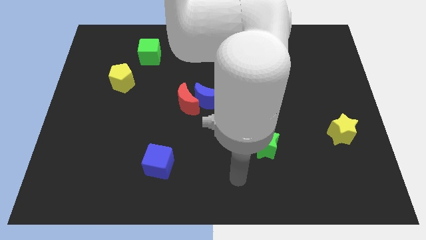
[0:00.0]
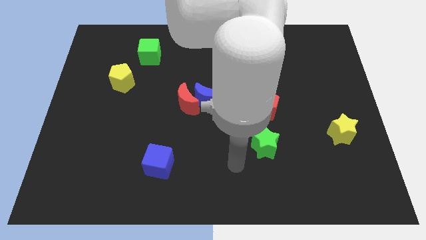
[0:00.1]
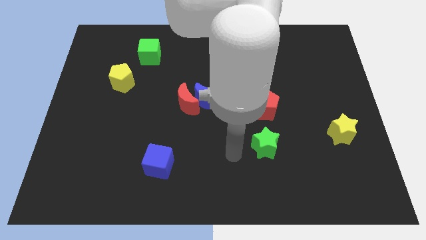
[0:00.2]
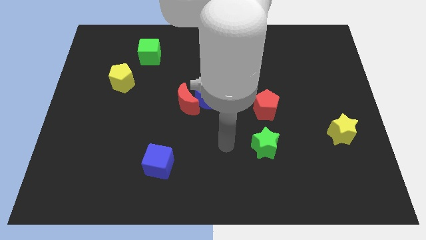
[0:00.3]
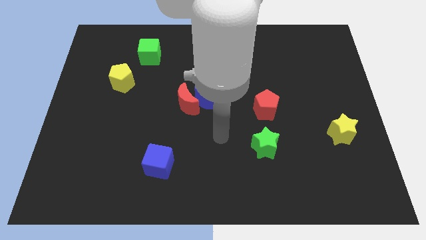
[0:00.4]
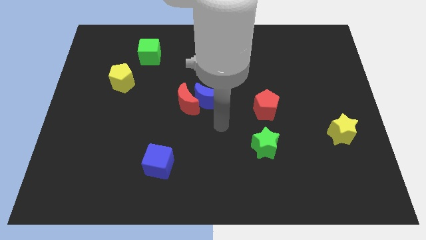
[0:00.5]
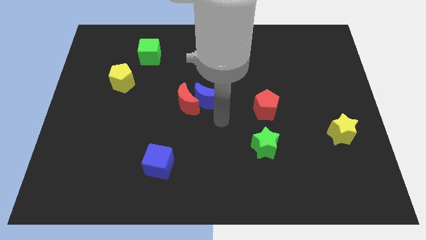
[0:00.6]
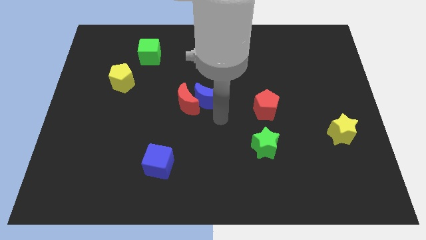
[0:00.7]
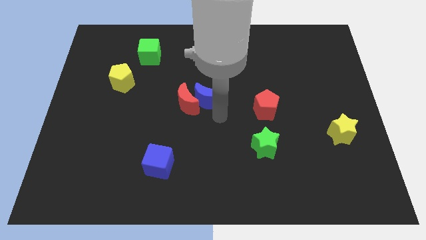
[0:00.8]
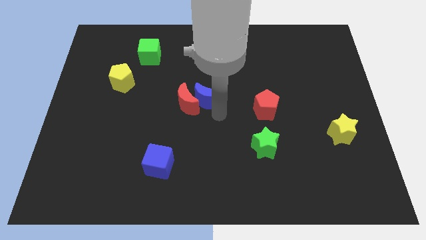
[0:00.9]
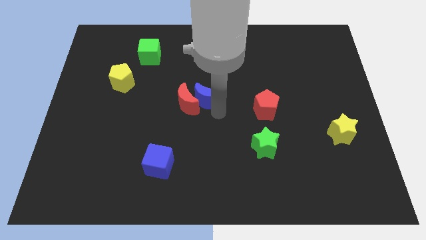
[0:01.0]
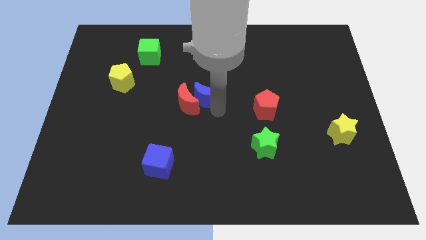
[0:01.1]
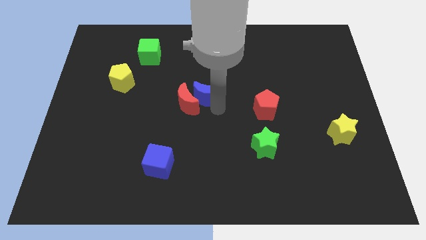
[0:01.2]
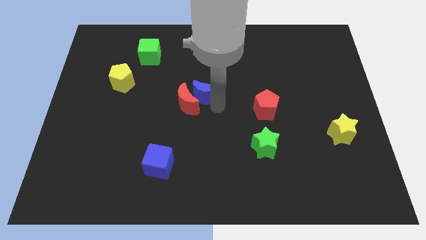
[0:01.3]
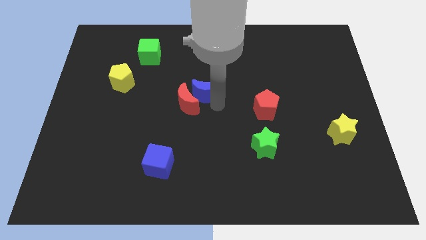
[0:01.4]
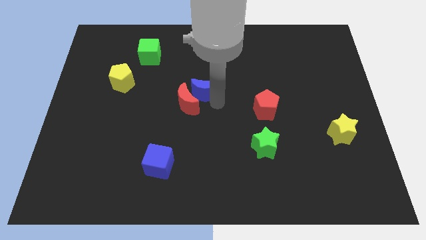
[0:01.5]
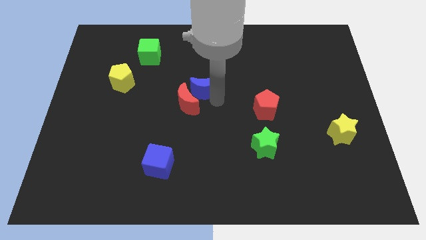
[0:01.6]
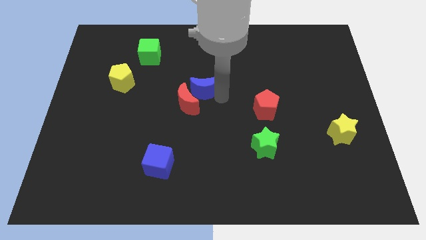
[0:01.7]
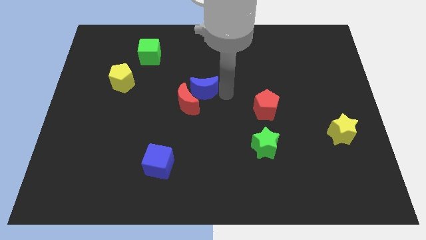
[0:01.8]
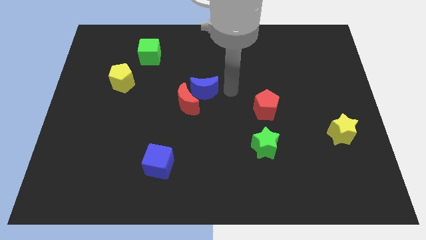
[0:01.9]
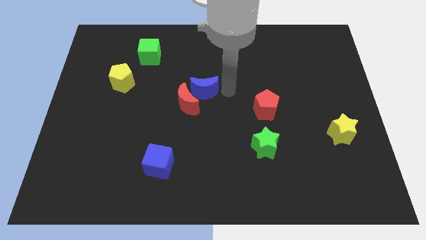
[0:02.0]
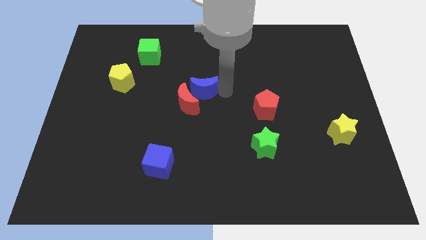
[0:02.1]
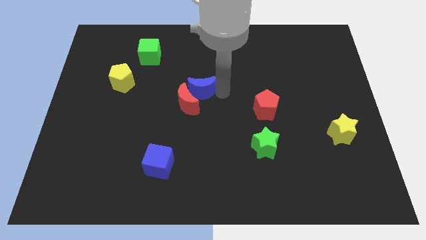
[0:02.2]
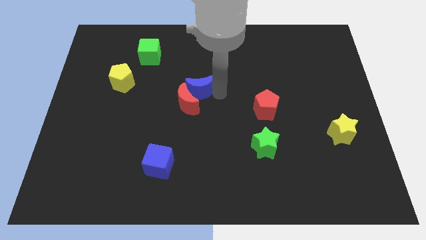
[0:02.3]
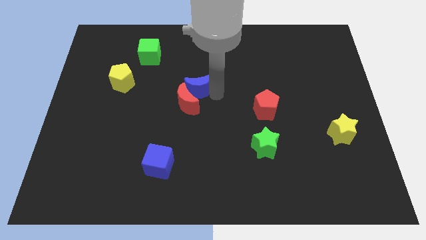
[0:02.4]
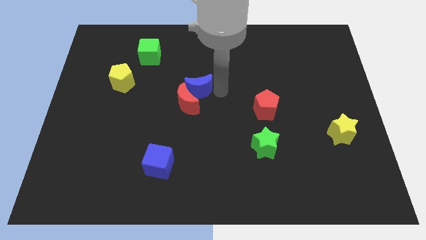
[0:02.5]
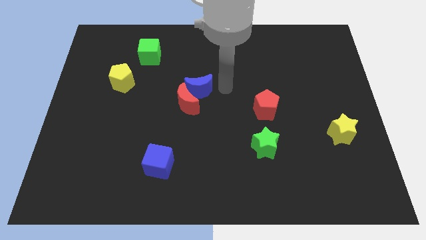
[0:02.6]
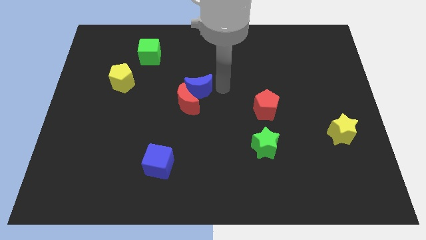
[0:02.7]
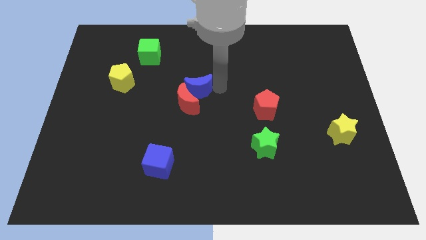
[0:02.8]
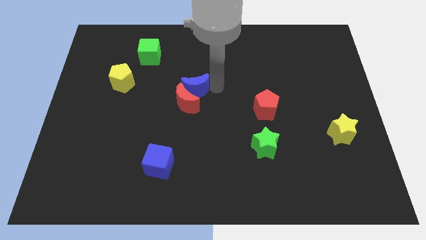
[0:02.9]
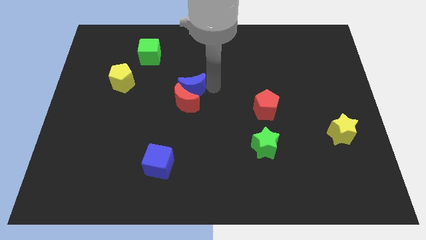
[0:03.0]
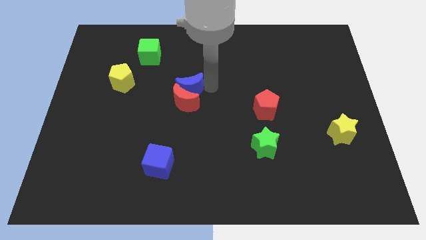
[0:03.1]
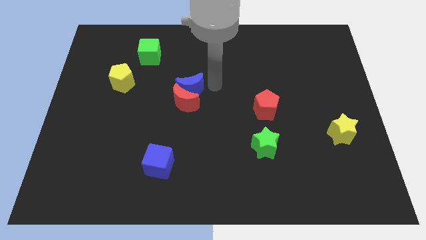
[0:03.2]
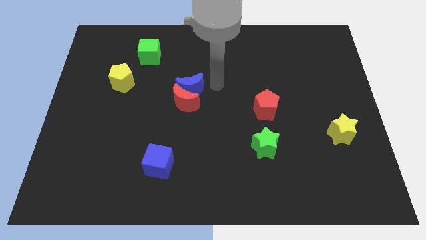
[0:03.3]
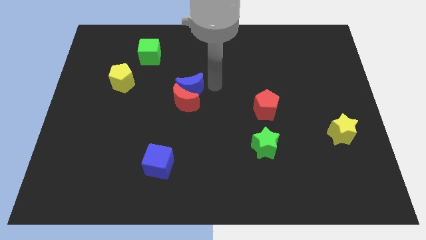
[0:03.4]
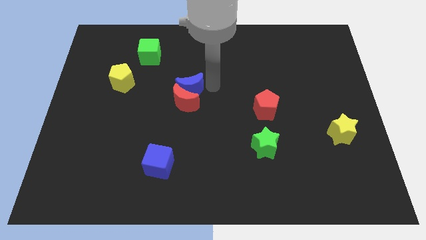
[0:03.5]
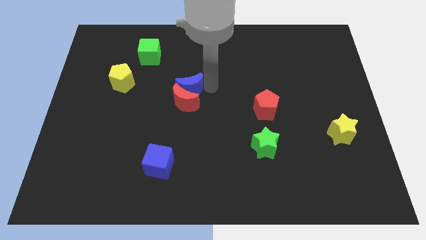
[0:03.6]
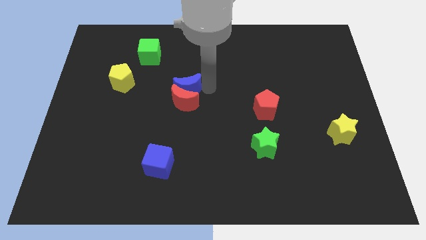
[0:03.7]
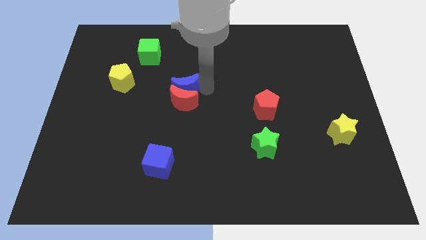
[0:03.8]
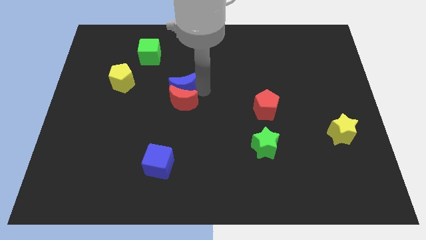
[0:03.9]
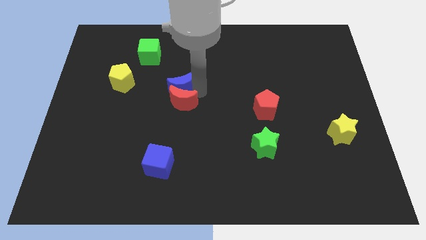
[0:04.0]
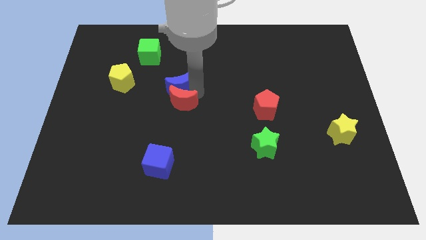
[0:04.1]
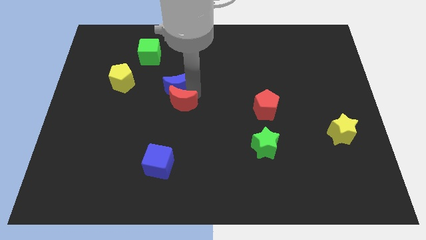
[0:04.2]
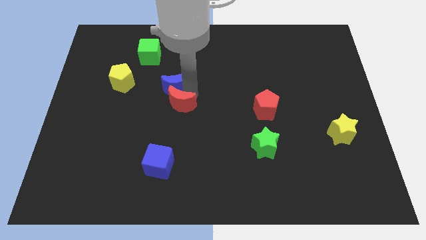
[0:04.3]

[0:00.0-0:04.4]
slide the blue moon to the left a bit

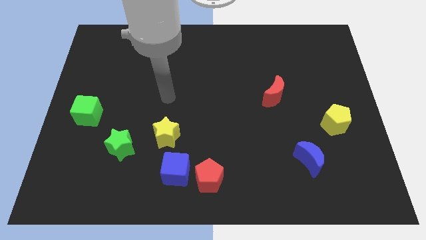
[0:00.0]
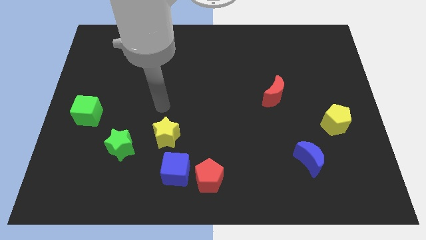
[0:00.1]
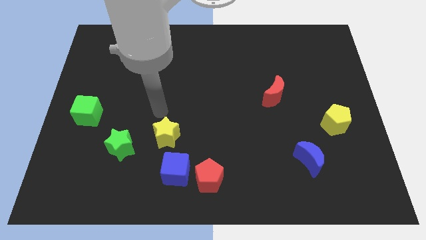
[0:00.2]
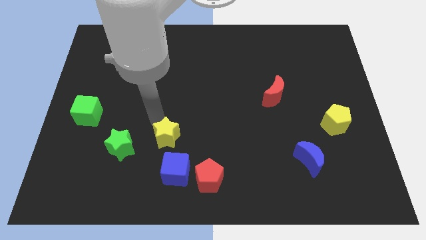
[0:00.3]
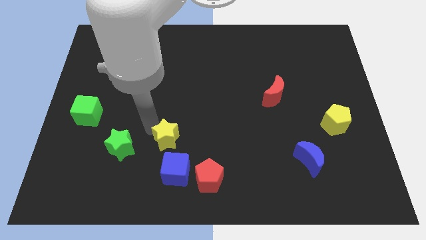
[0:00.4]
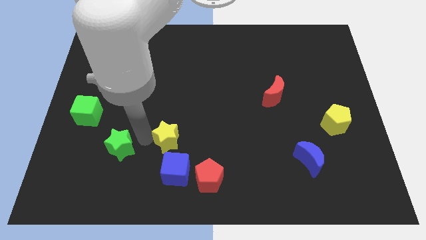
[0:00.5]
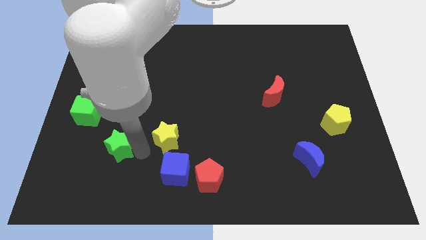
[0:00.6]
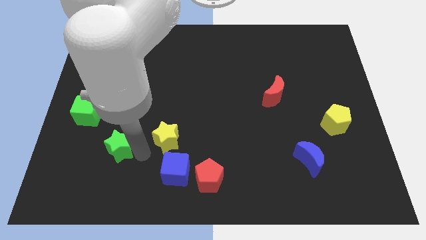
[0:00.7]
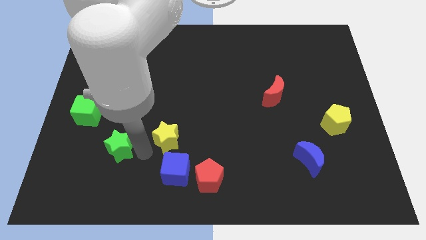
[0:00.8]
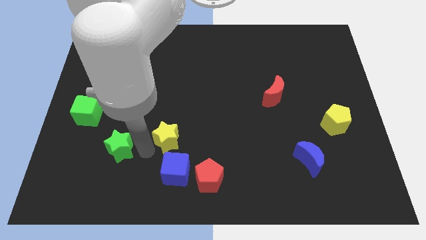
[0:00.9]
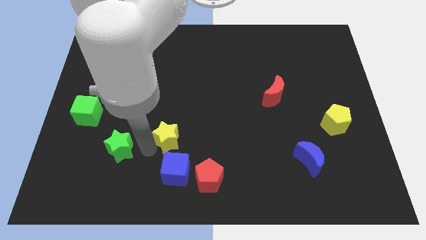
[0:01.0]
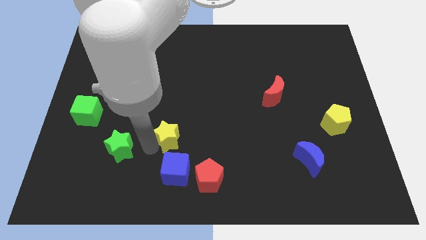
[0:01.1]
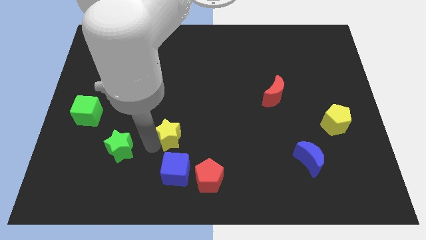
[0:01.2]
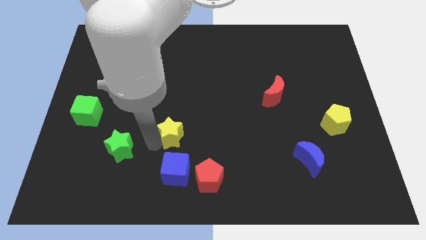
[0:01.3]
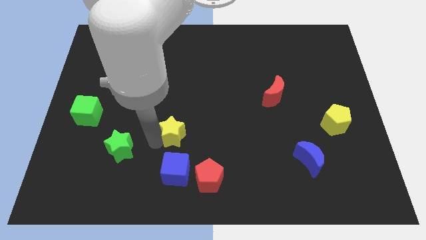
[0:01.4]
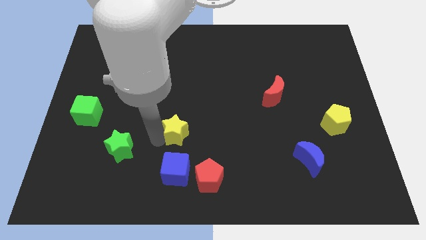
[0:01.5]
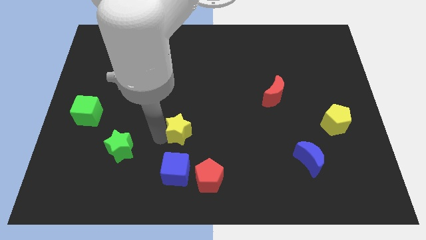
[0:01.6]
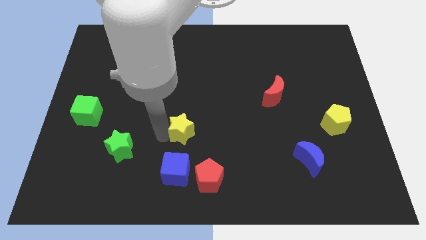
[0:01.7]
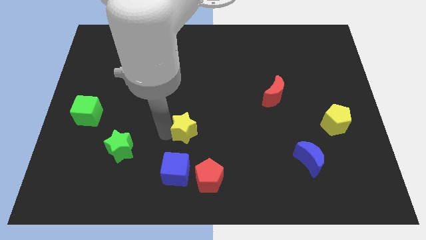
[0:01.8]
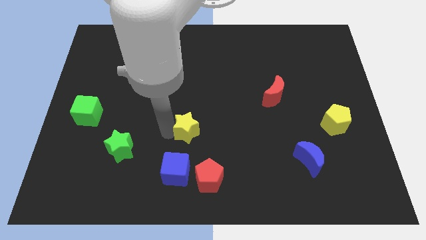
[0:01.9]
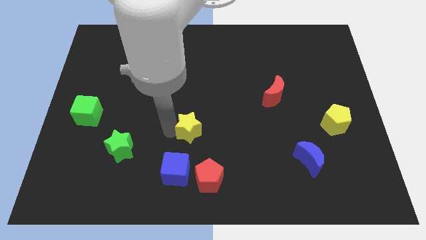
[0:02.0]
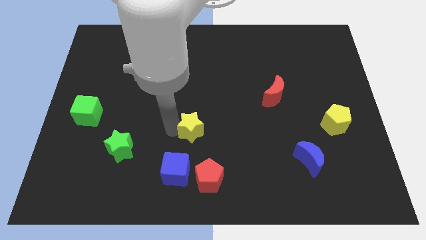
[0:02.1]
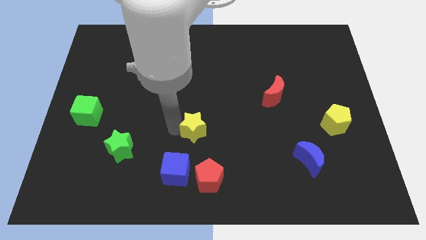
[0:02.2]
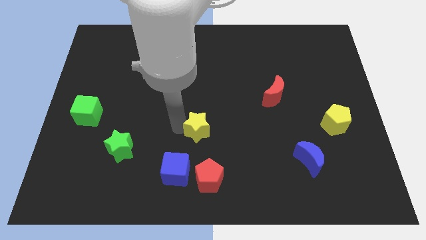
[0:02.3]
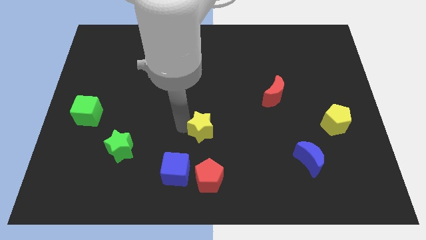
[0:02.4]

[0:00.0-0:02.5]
move the yellow star a little to the right

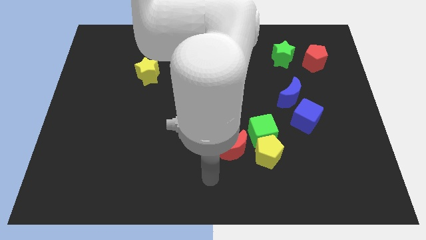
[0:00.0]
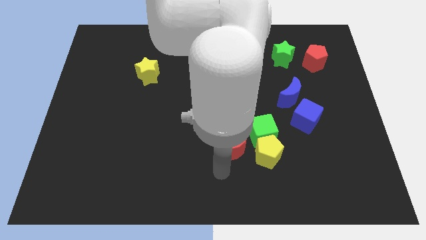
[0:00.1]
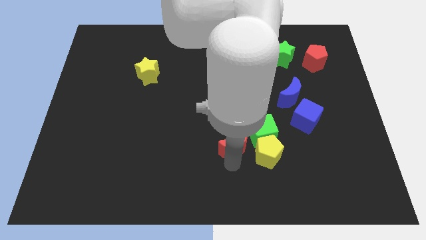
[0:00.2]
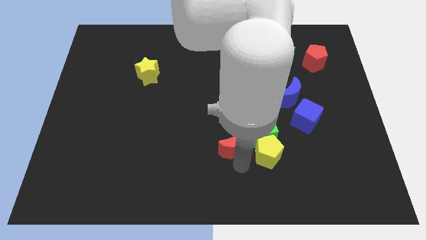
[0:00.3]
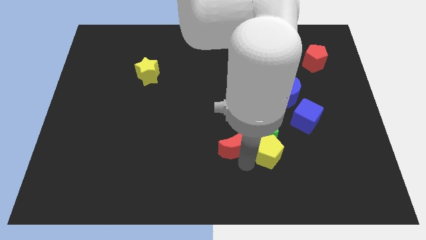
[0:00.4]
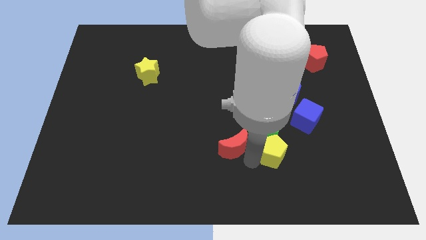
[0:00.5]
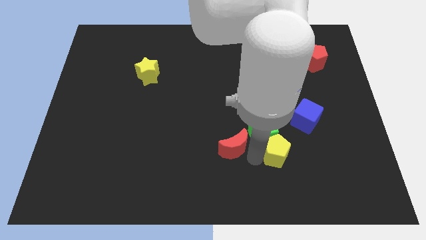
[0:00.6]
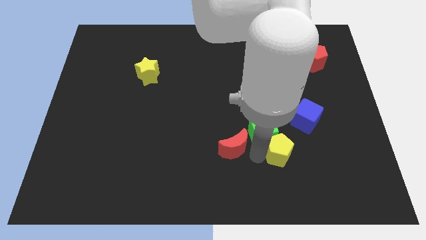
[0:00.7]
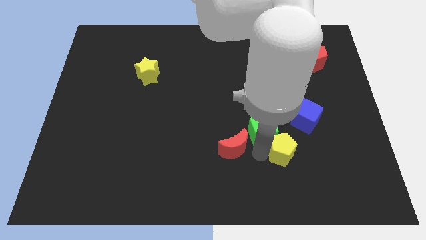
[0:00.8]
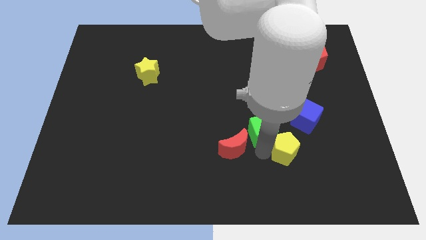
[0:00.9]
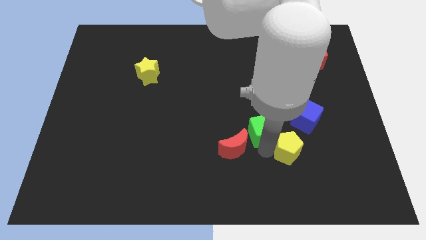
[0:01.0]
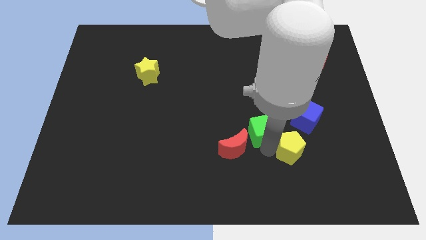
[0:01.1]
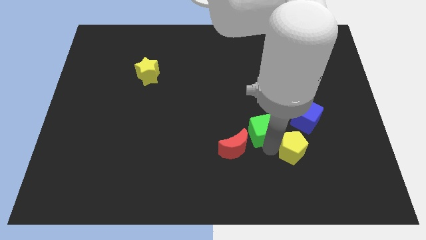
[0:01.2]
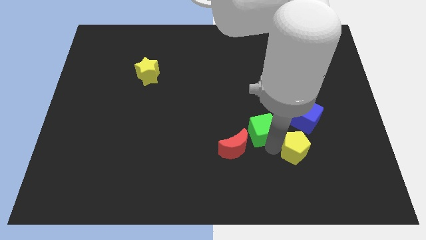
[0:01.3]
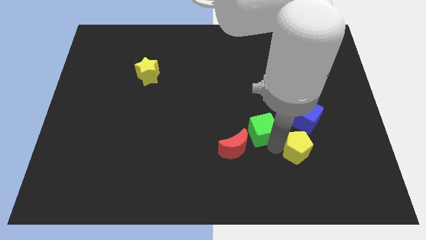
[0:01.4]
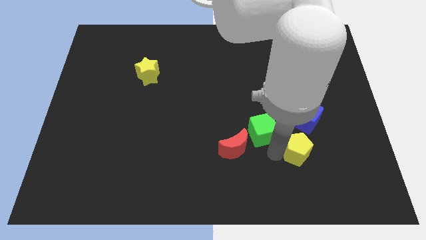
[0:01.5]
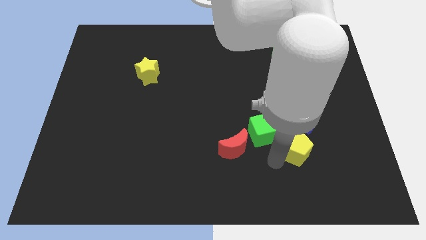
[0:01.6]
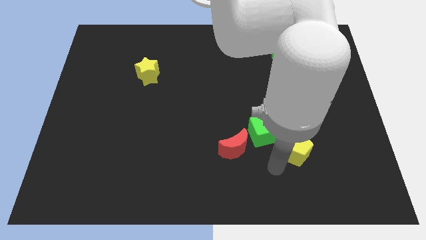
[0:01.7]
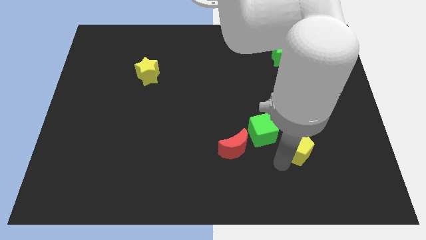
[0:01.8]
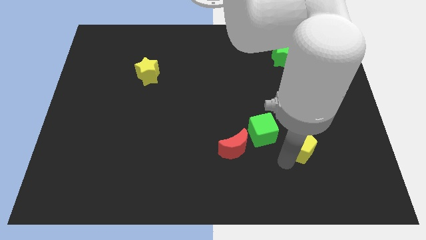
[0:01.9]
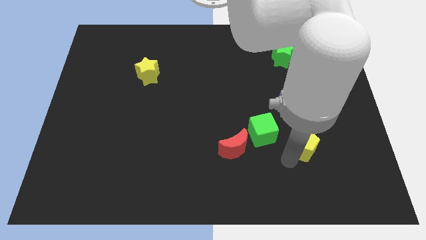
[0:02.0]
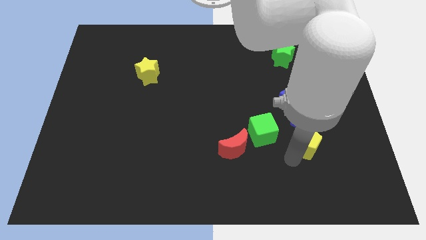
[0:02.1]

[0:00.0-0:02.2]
slightly slide the yellow pentagon upwards and to the right diagonally
